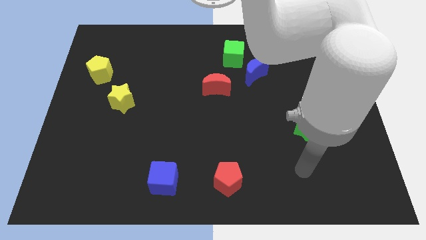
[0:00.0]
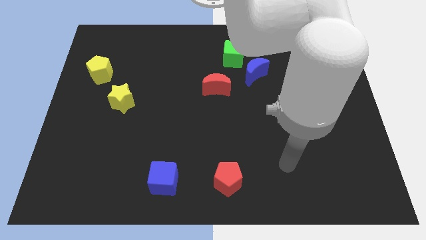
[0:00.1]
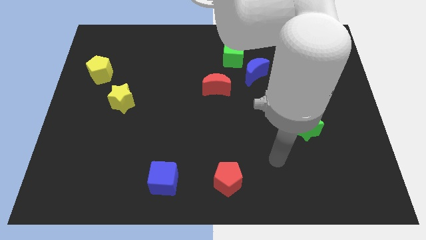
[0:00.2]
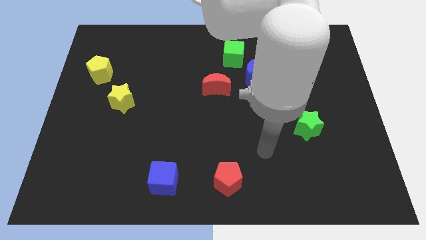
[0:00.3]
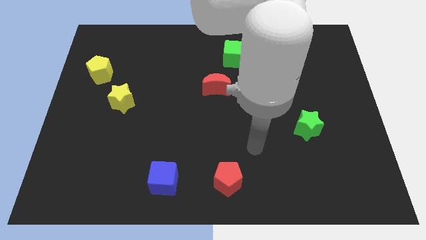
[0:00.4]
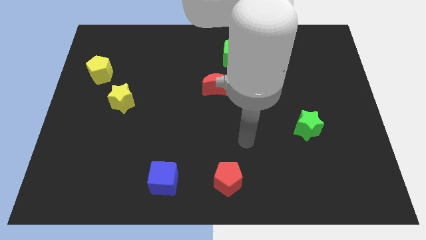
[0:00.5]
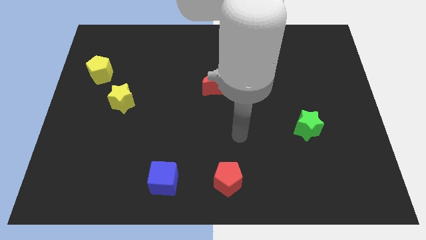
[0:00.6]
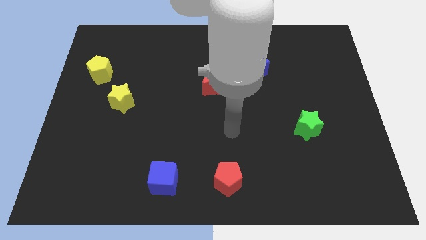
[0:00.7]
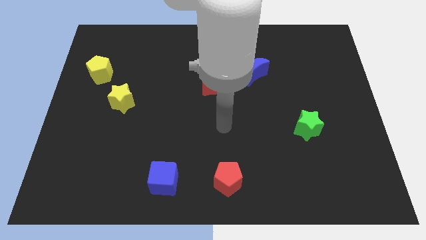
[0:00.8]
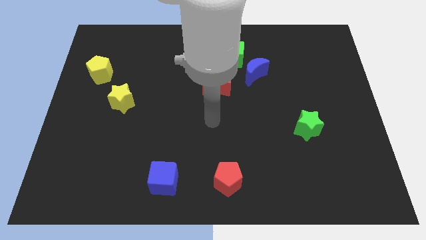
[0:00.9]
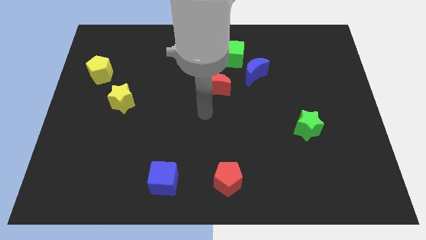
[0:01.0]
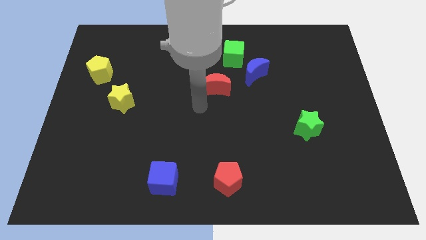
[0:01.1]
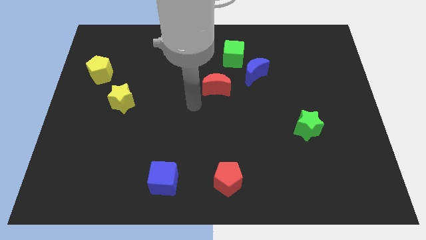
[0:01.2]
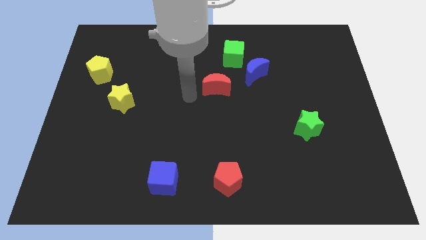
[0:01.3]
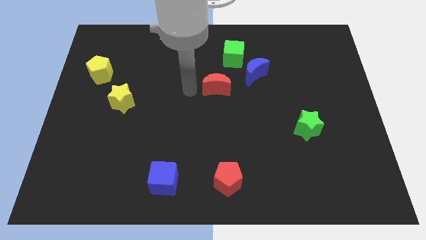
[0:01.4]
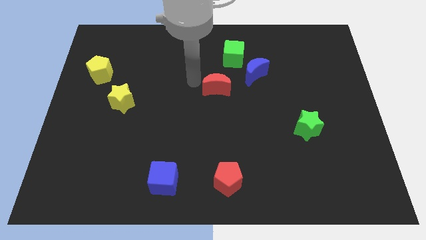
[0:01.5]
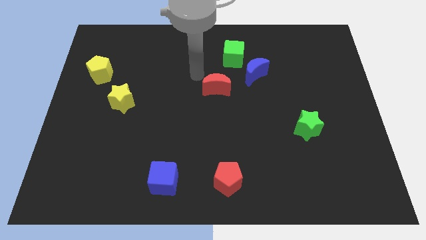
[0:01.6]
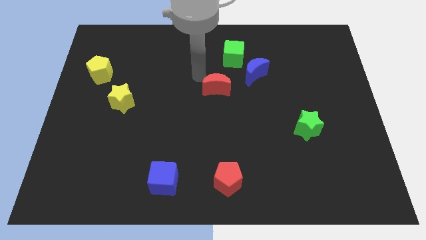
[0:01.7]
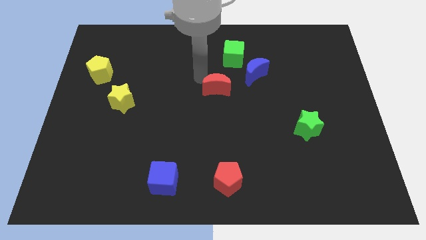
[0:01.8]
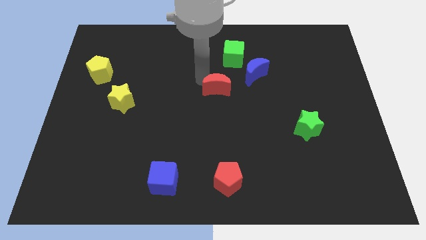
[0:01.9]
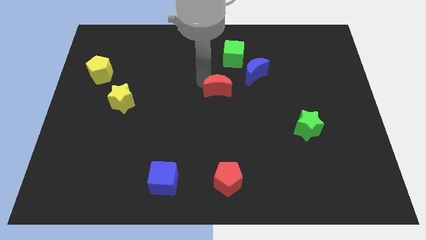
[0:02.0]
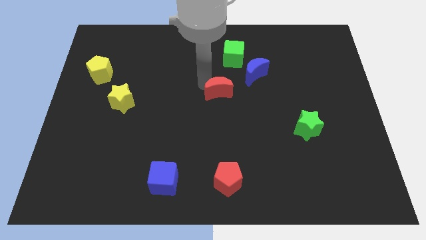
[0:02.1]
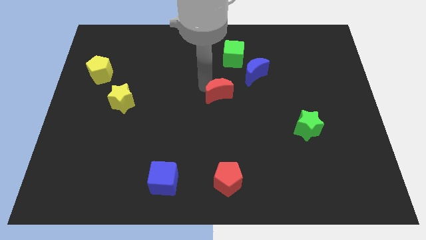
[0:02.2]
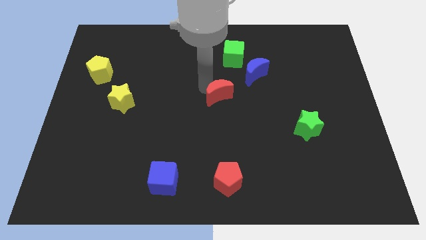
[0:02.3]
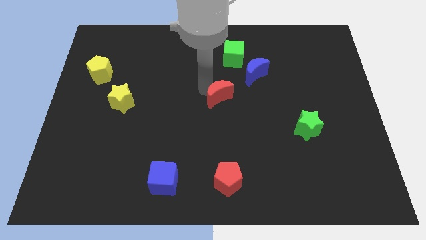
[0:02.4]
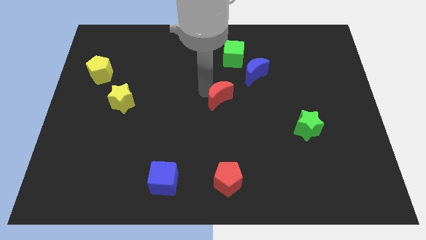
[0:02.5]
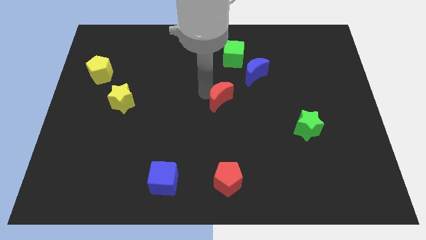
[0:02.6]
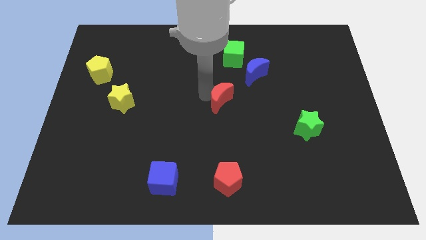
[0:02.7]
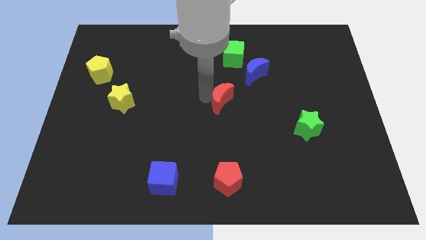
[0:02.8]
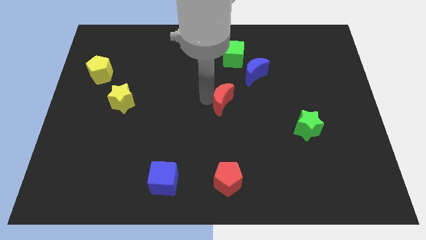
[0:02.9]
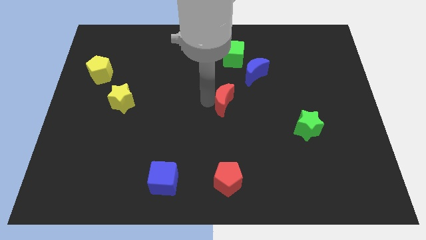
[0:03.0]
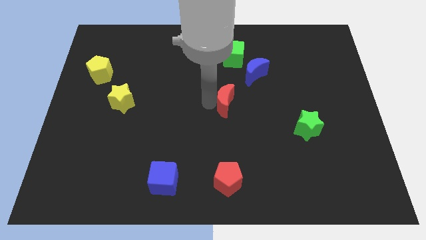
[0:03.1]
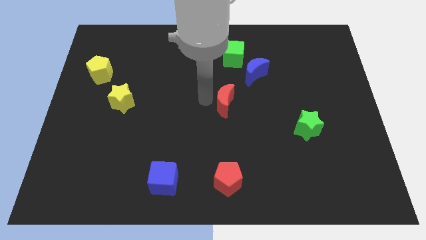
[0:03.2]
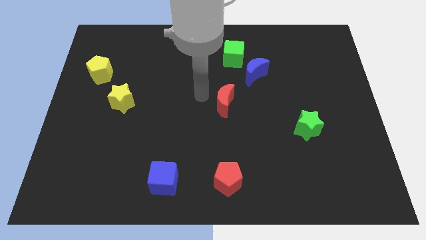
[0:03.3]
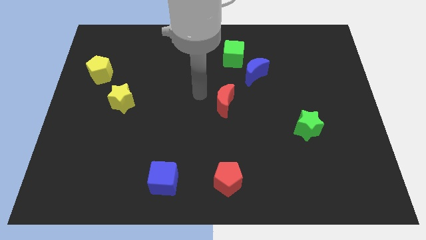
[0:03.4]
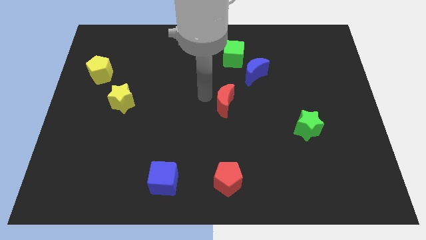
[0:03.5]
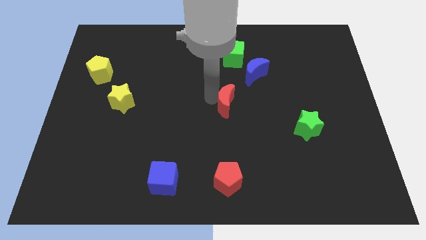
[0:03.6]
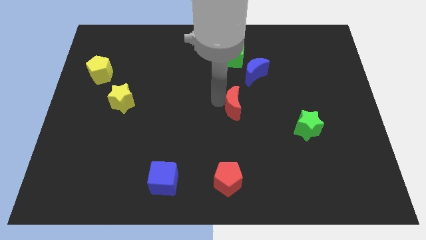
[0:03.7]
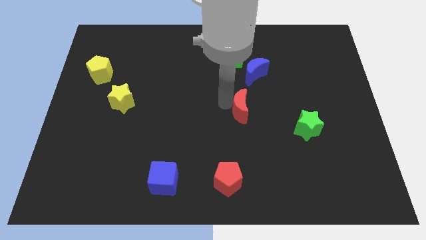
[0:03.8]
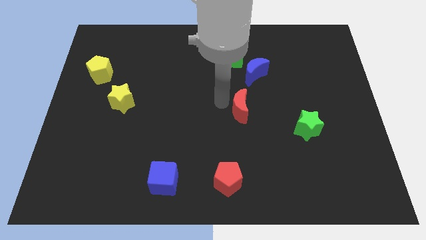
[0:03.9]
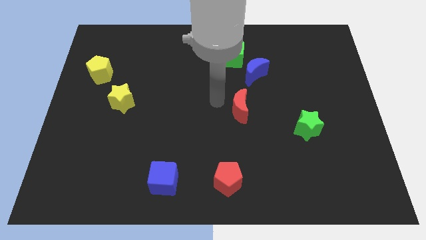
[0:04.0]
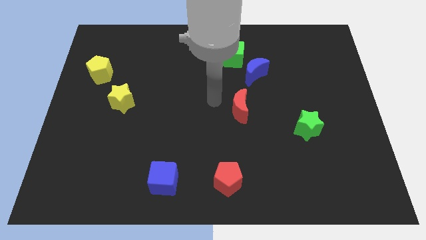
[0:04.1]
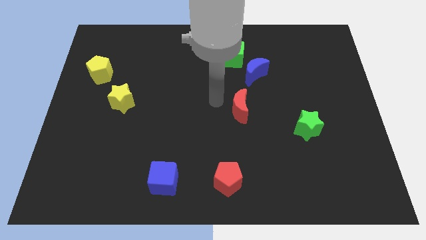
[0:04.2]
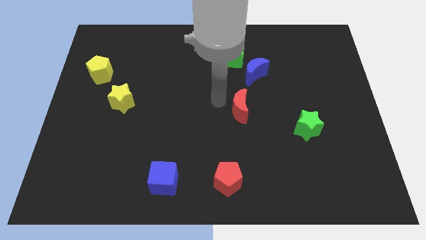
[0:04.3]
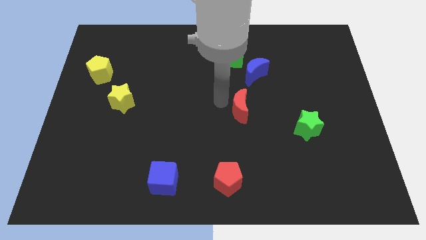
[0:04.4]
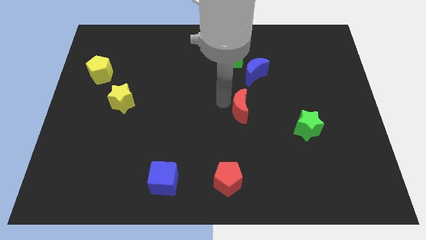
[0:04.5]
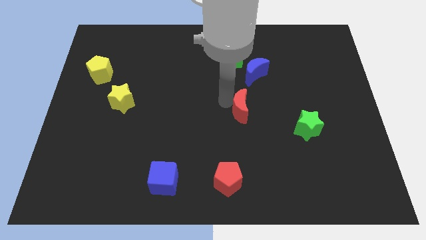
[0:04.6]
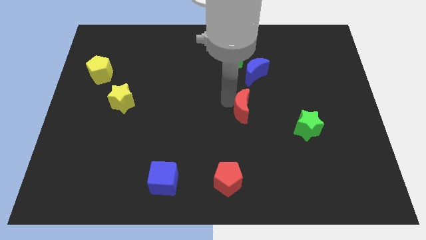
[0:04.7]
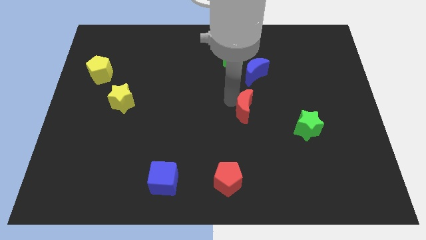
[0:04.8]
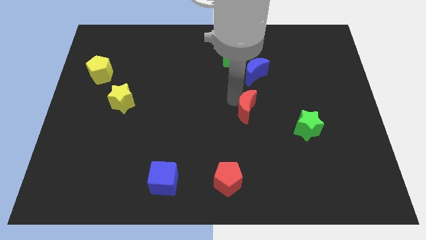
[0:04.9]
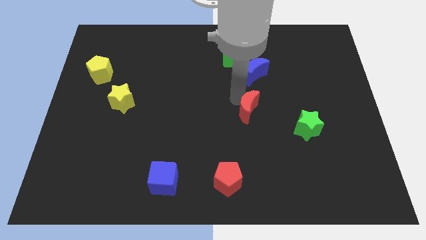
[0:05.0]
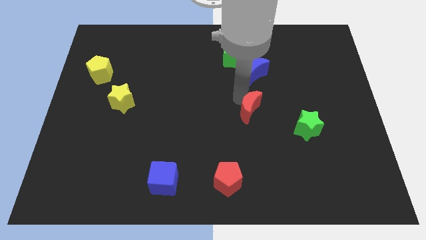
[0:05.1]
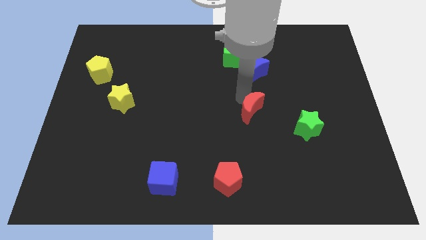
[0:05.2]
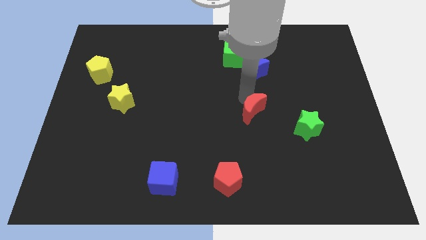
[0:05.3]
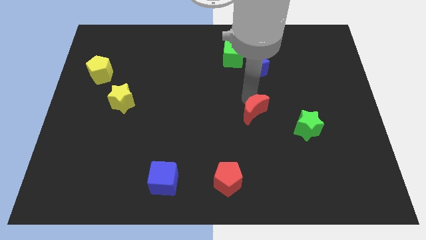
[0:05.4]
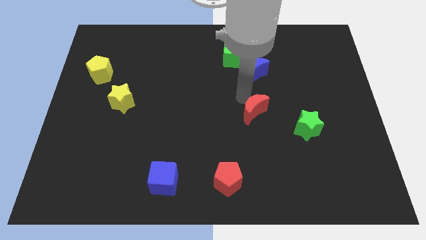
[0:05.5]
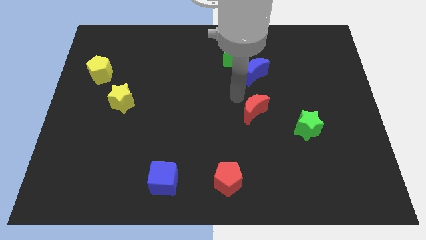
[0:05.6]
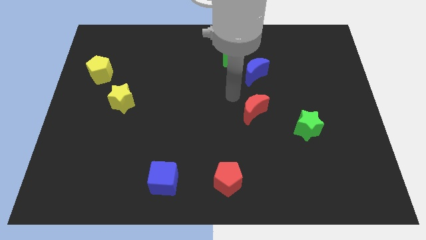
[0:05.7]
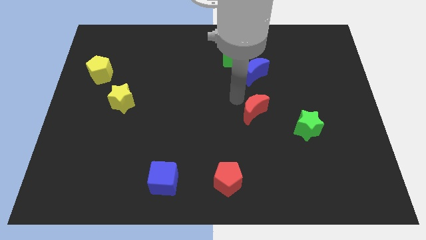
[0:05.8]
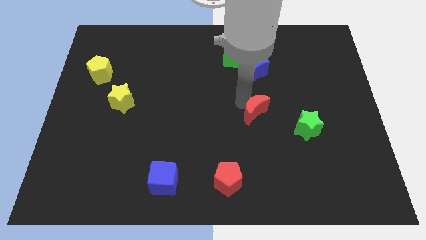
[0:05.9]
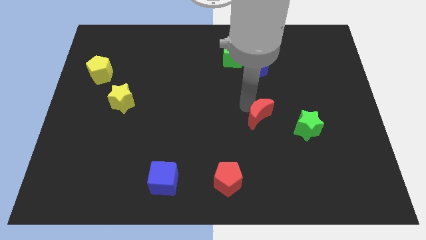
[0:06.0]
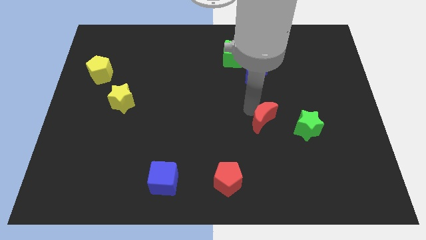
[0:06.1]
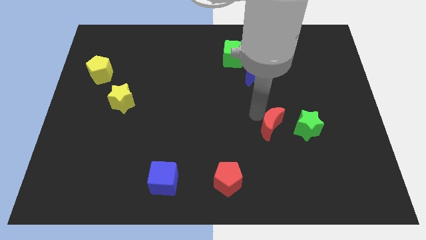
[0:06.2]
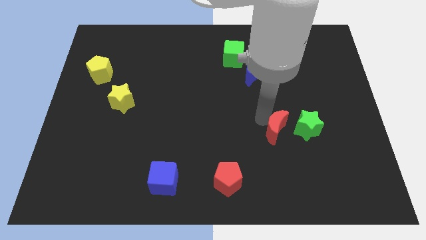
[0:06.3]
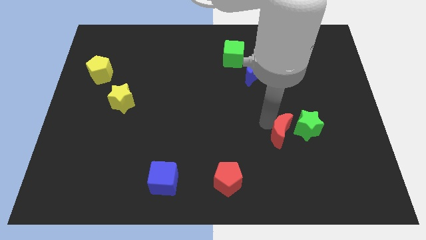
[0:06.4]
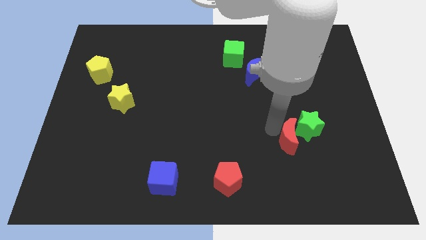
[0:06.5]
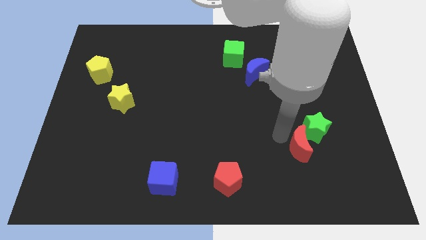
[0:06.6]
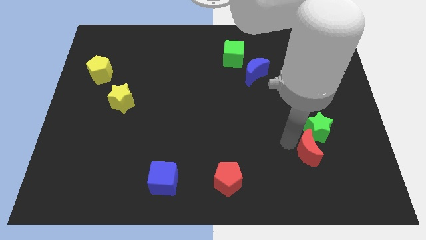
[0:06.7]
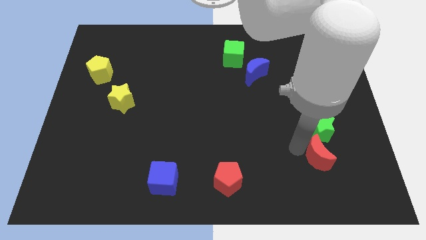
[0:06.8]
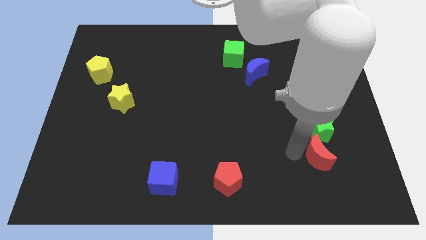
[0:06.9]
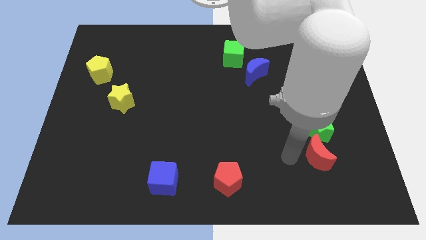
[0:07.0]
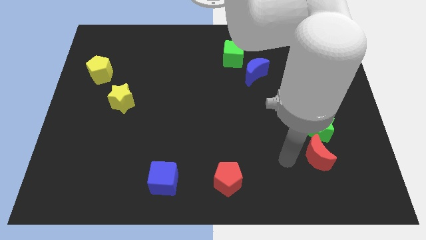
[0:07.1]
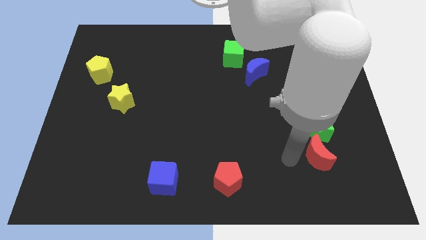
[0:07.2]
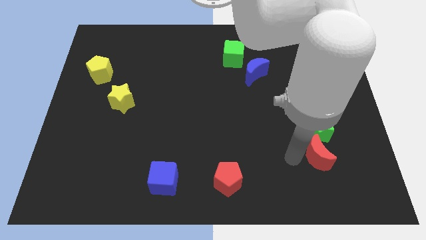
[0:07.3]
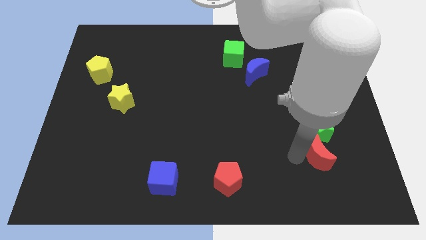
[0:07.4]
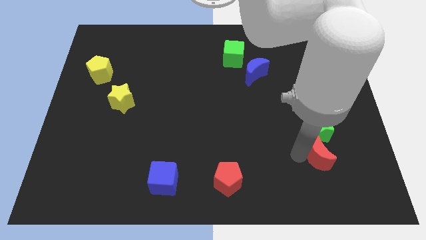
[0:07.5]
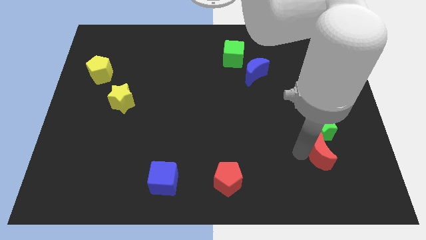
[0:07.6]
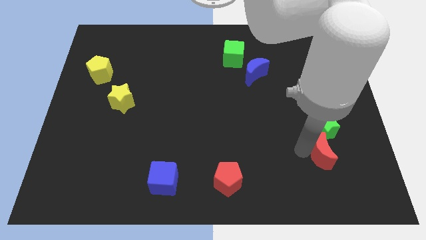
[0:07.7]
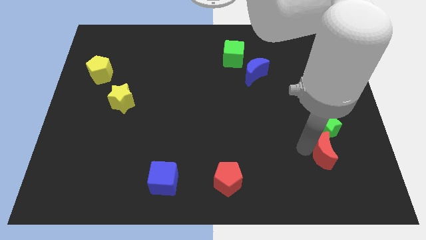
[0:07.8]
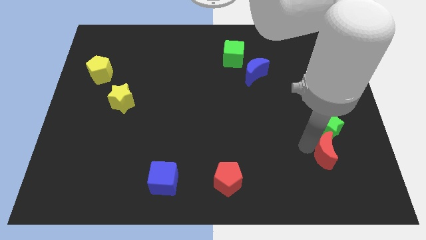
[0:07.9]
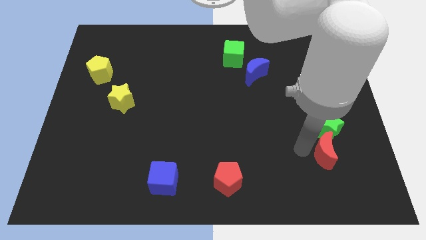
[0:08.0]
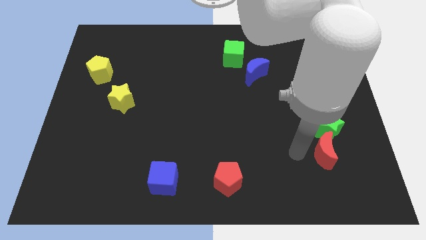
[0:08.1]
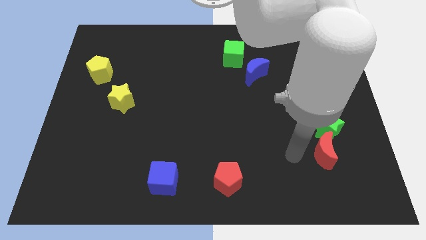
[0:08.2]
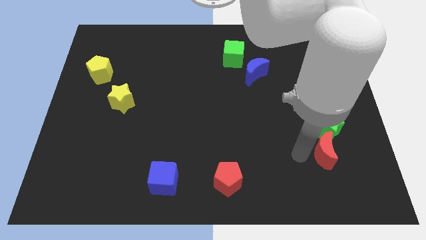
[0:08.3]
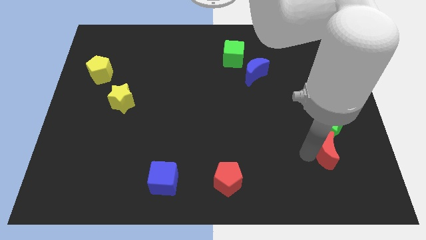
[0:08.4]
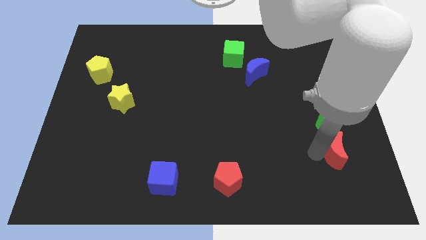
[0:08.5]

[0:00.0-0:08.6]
put the red moon diagonally down and to the right of the green star
